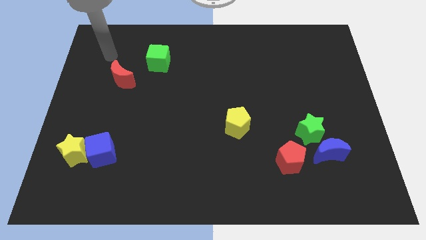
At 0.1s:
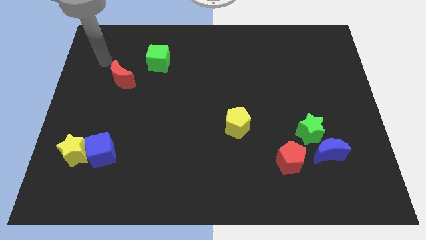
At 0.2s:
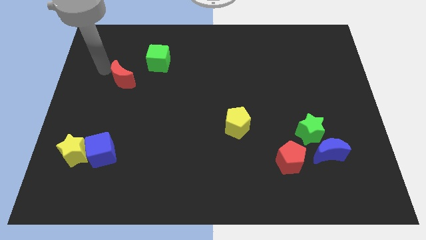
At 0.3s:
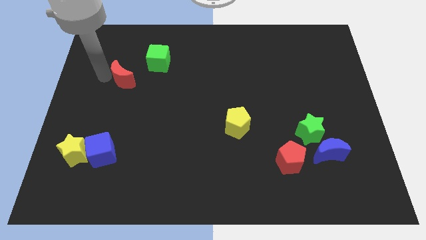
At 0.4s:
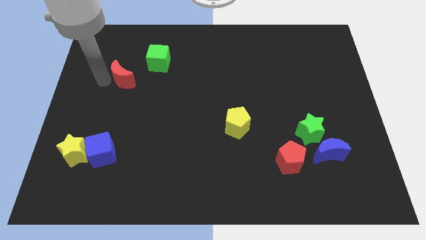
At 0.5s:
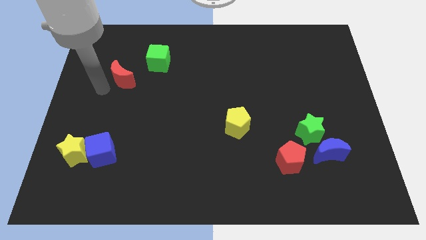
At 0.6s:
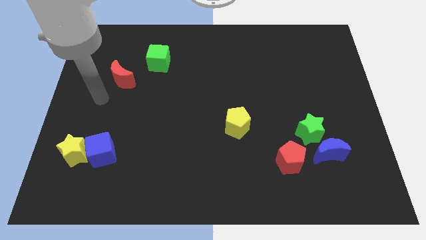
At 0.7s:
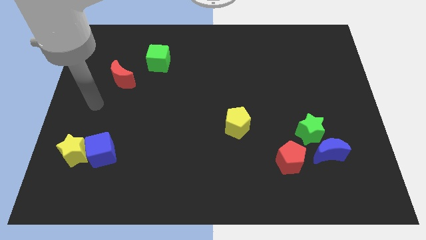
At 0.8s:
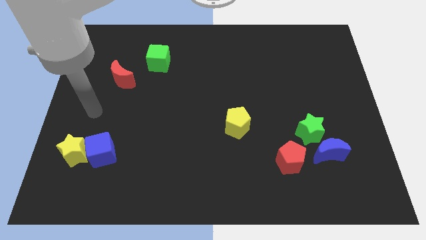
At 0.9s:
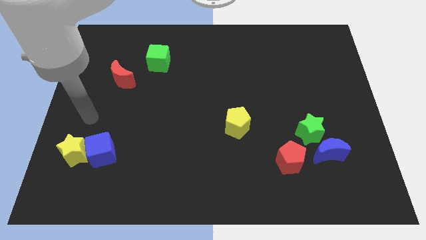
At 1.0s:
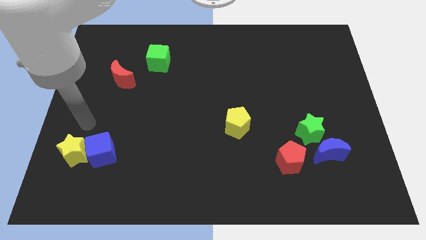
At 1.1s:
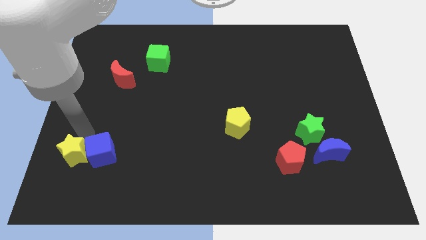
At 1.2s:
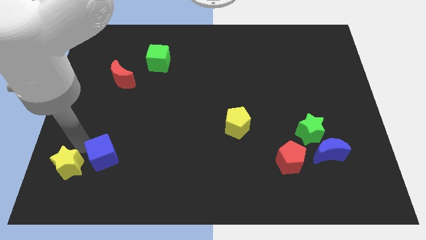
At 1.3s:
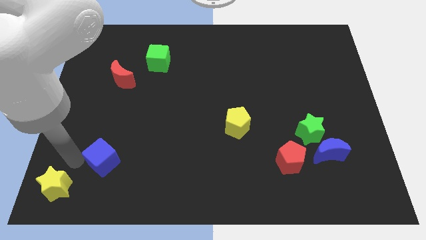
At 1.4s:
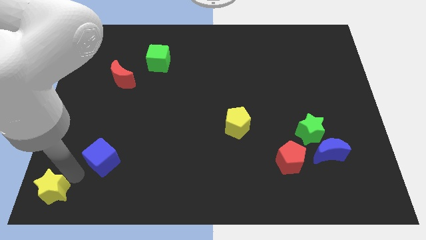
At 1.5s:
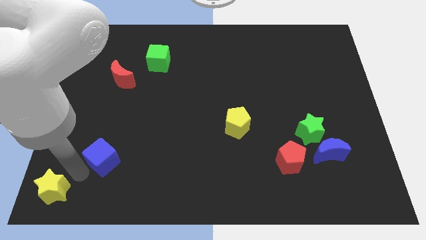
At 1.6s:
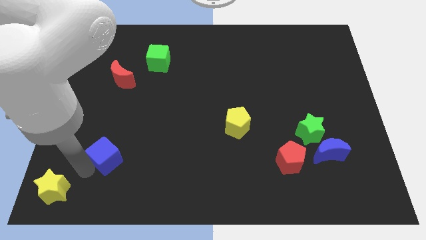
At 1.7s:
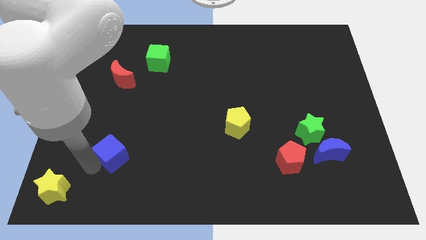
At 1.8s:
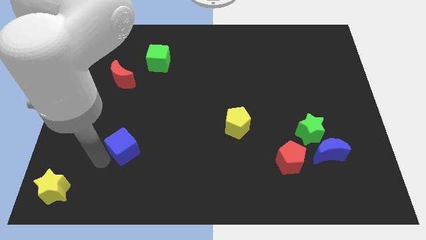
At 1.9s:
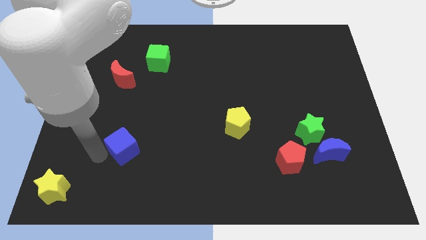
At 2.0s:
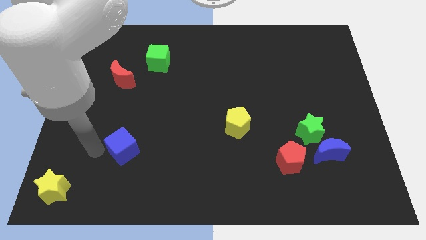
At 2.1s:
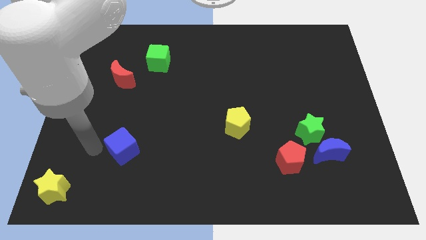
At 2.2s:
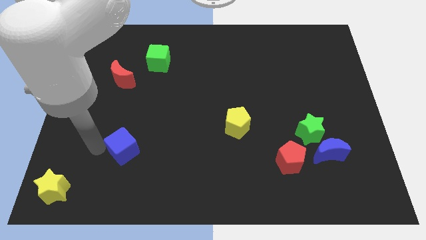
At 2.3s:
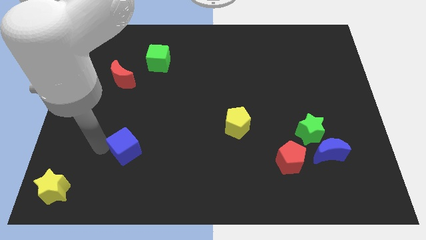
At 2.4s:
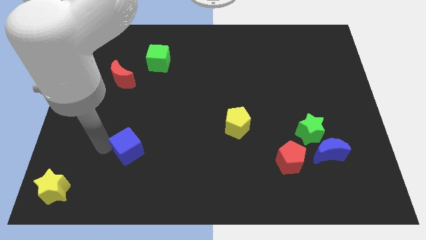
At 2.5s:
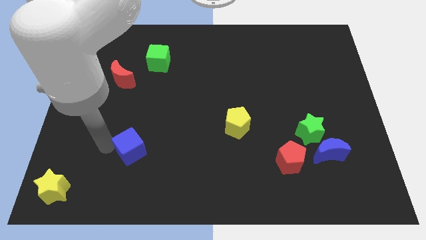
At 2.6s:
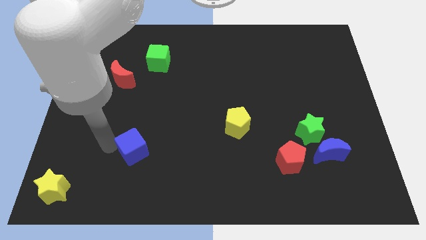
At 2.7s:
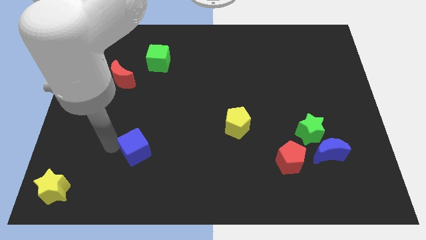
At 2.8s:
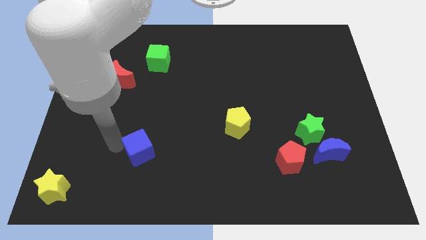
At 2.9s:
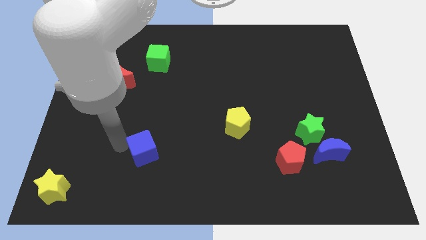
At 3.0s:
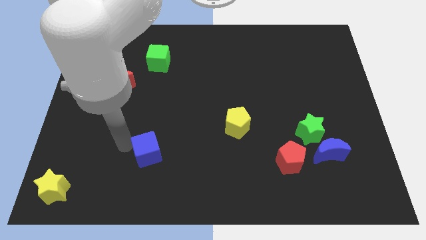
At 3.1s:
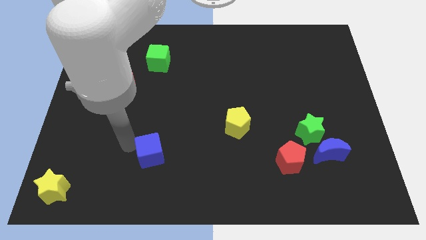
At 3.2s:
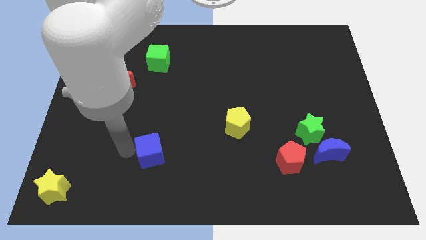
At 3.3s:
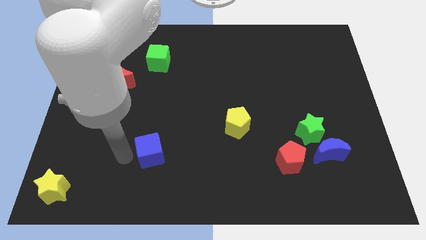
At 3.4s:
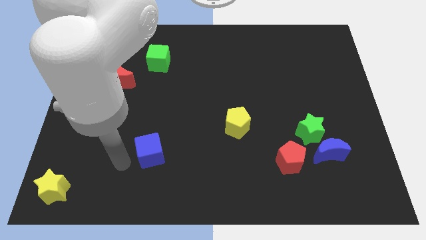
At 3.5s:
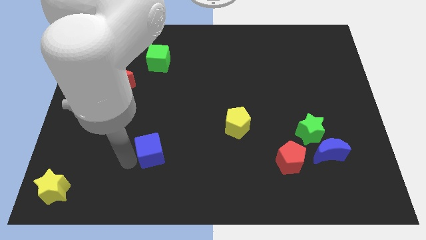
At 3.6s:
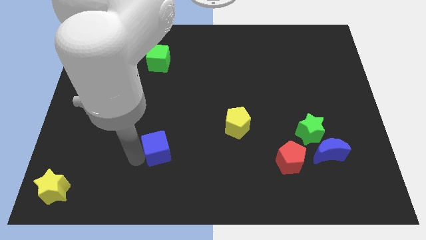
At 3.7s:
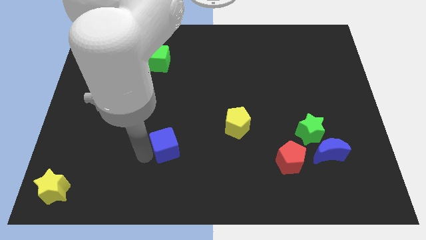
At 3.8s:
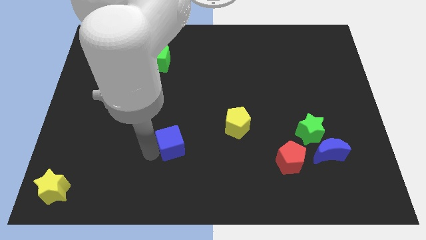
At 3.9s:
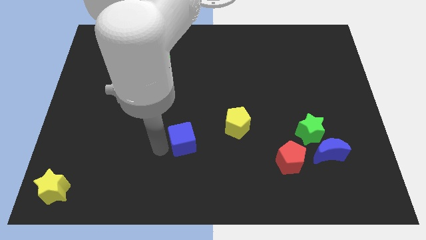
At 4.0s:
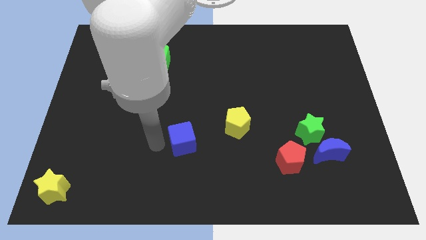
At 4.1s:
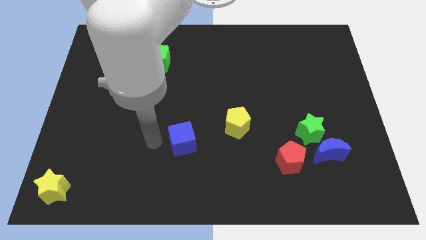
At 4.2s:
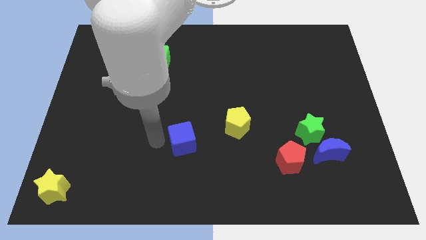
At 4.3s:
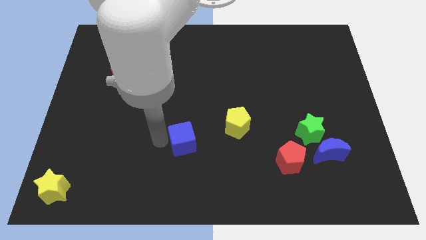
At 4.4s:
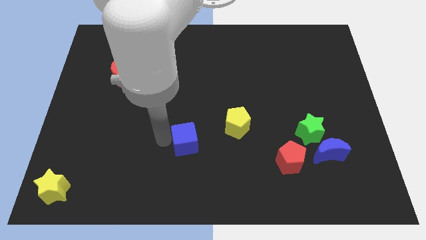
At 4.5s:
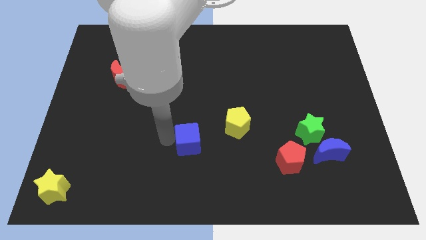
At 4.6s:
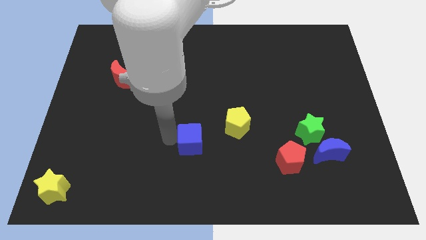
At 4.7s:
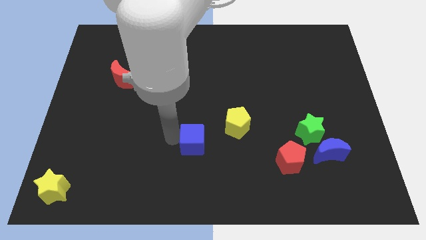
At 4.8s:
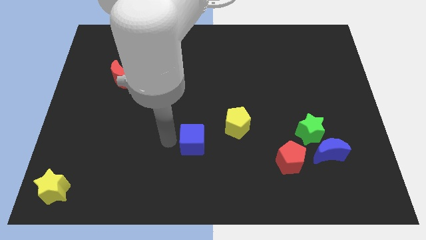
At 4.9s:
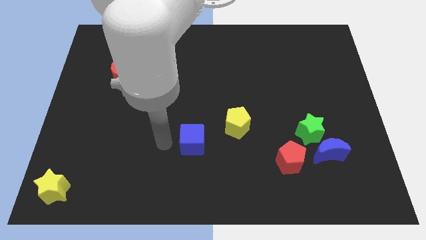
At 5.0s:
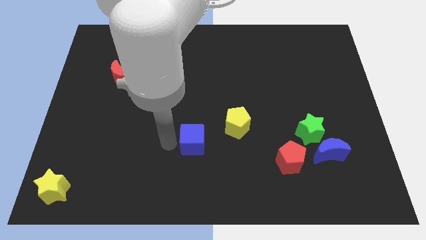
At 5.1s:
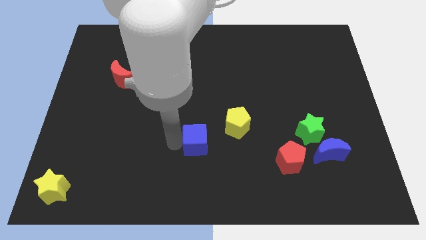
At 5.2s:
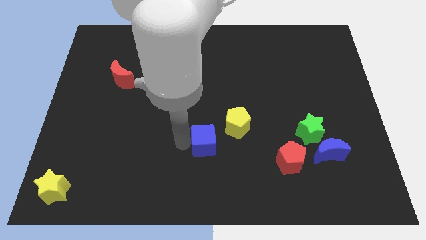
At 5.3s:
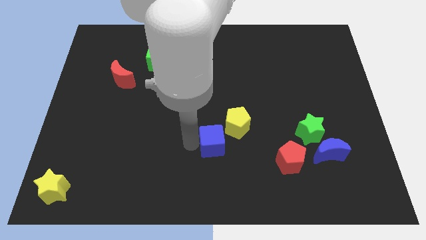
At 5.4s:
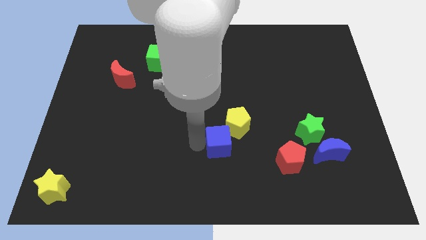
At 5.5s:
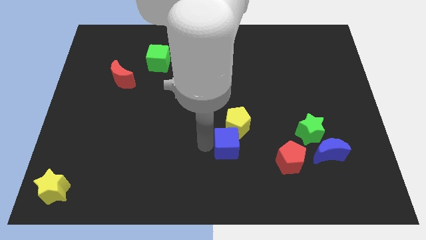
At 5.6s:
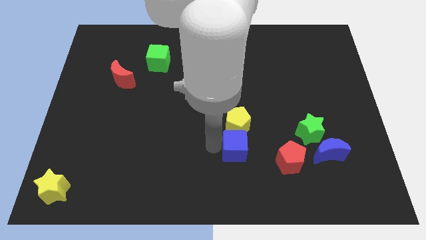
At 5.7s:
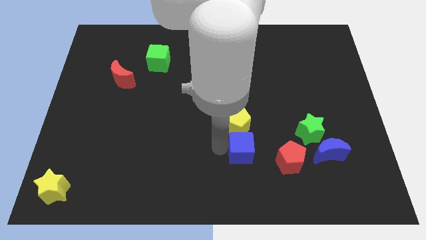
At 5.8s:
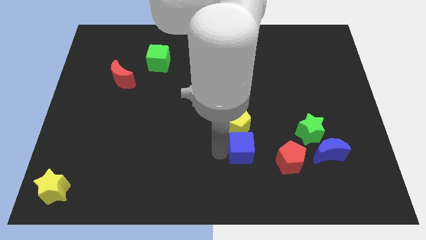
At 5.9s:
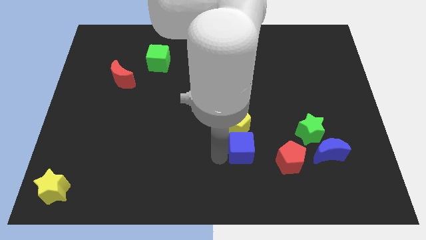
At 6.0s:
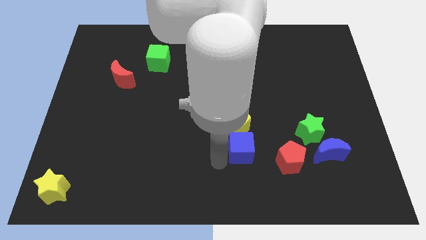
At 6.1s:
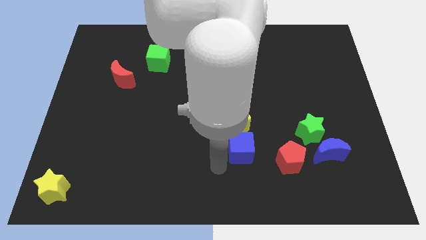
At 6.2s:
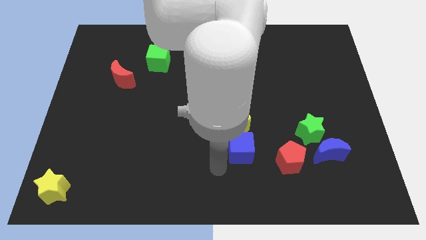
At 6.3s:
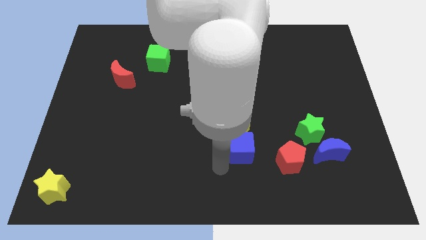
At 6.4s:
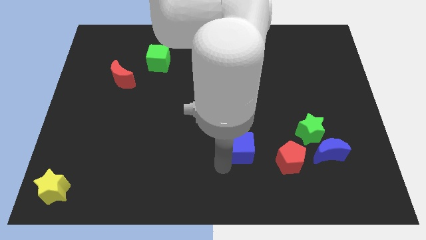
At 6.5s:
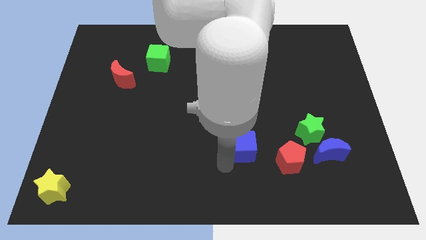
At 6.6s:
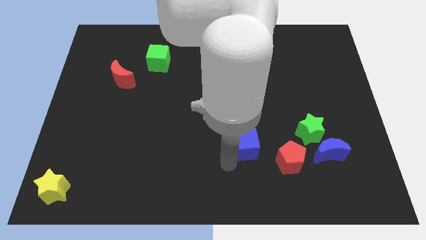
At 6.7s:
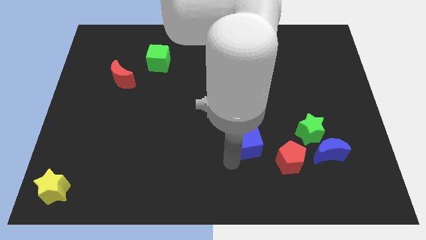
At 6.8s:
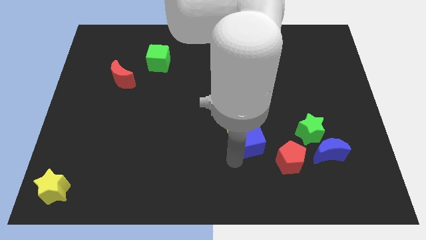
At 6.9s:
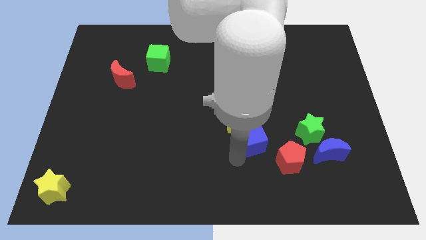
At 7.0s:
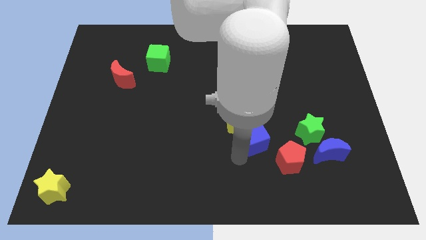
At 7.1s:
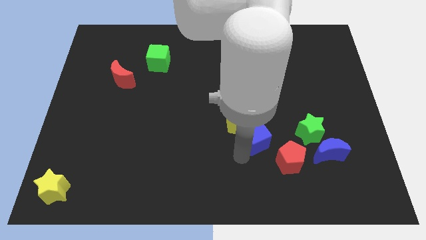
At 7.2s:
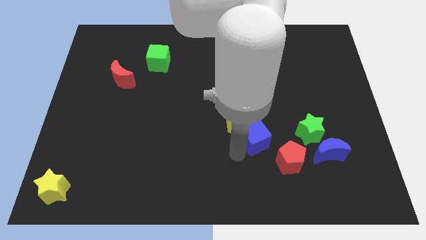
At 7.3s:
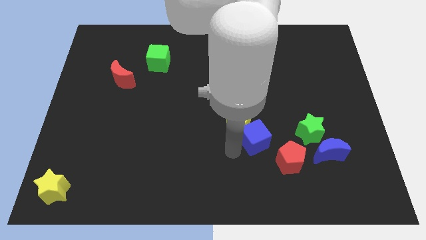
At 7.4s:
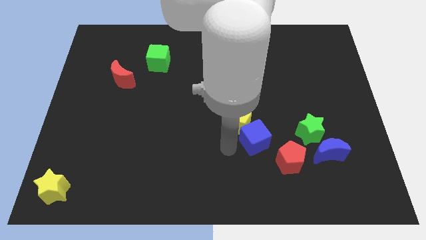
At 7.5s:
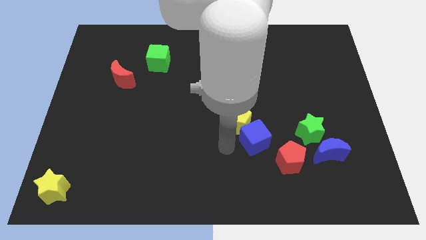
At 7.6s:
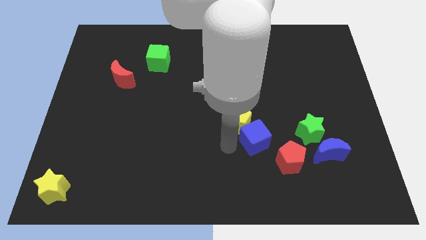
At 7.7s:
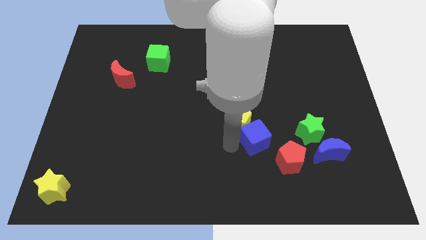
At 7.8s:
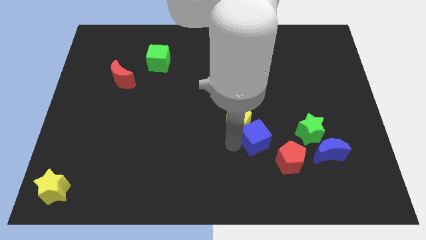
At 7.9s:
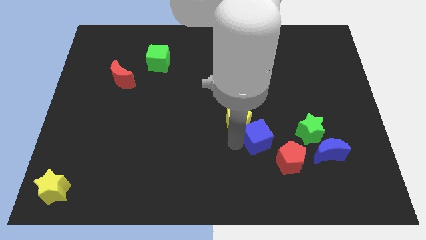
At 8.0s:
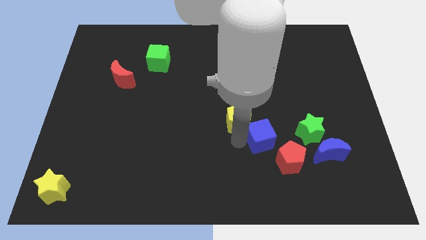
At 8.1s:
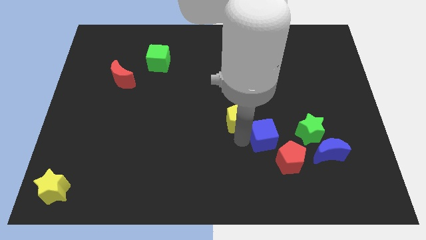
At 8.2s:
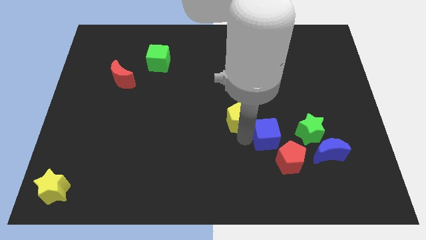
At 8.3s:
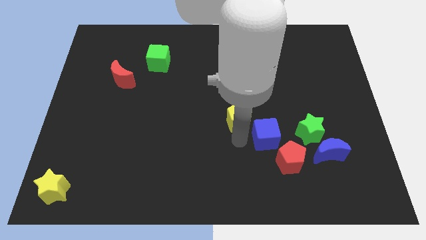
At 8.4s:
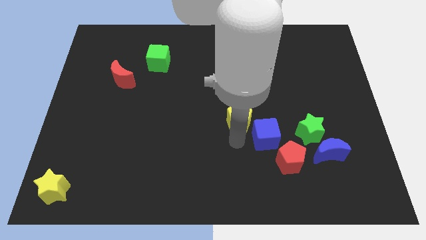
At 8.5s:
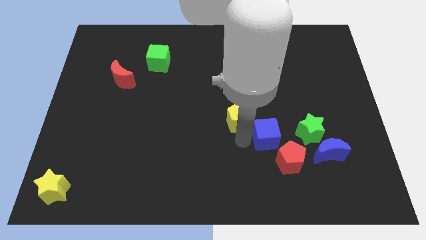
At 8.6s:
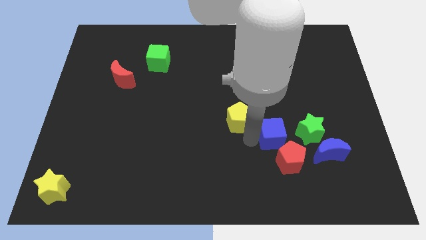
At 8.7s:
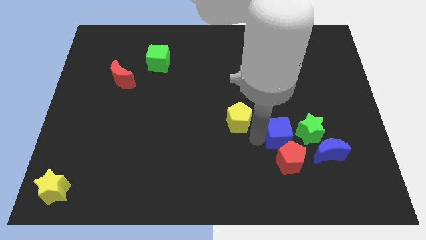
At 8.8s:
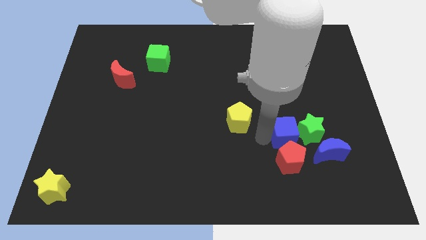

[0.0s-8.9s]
slide the blue cube towards the green star
